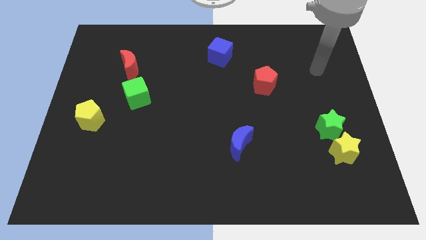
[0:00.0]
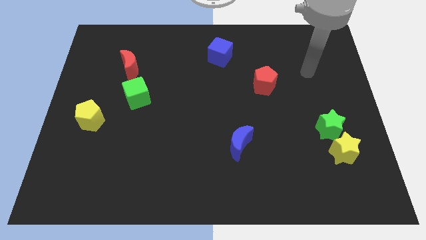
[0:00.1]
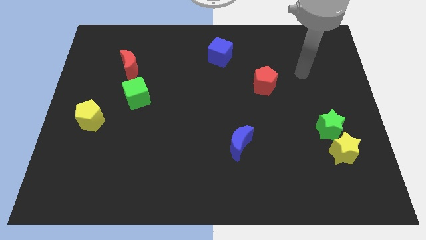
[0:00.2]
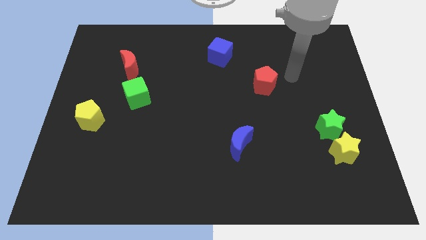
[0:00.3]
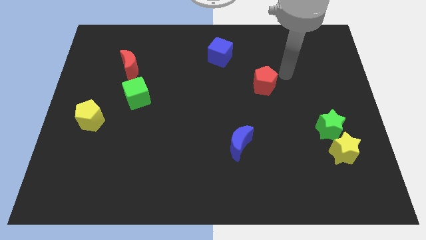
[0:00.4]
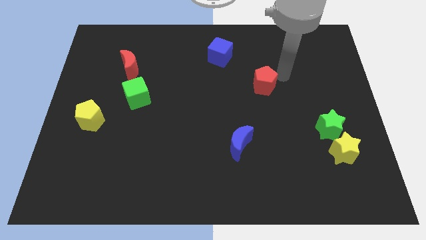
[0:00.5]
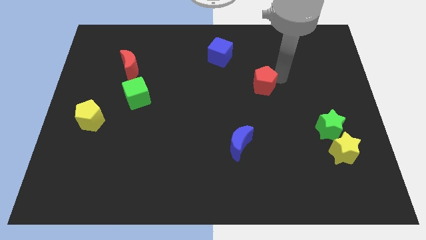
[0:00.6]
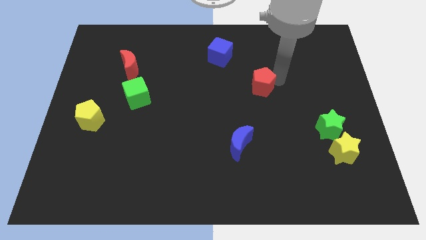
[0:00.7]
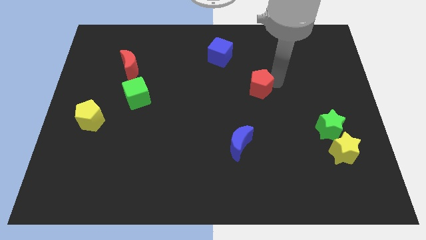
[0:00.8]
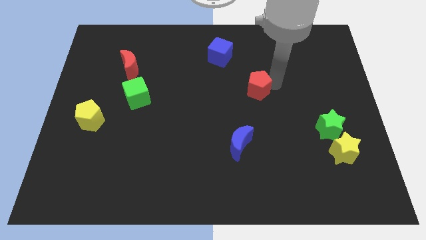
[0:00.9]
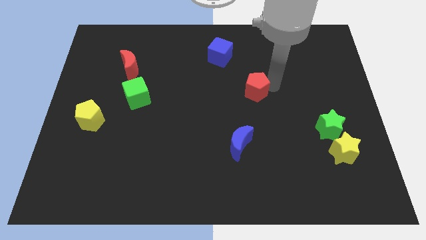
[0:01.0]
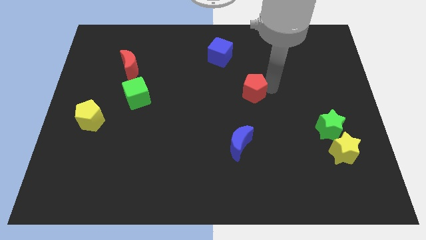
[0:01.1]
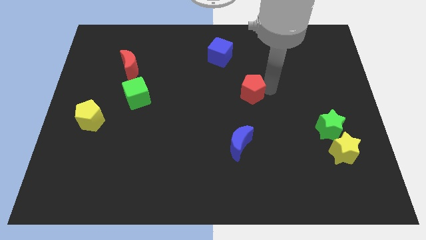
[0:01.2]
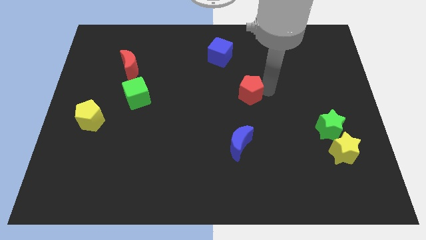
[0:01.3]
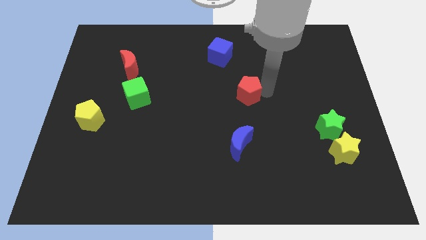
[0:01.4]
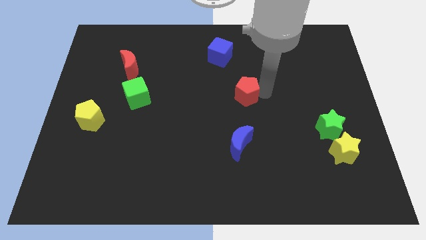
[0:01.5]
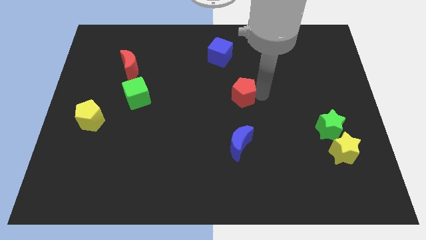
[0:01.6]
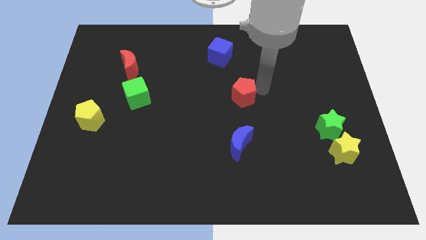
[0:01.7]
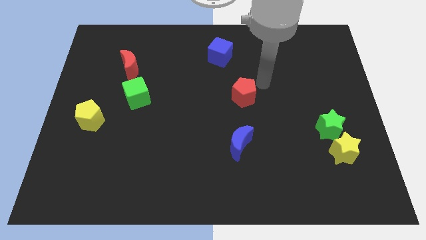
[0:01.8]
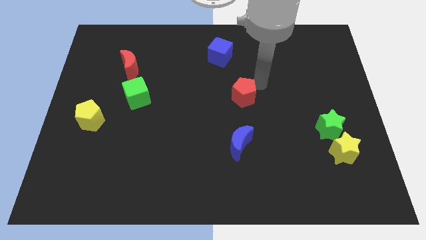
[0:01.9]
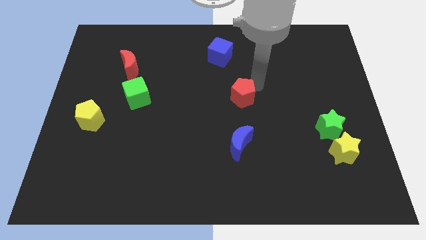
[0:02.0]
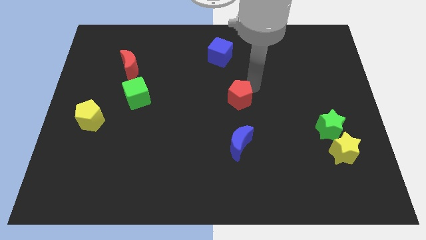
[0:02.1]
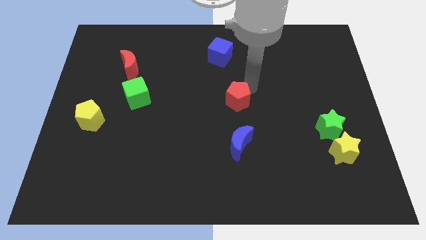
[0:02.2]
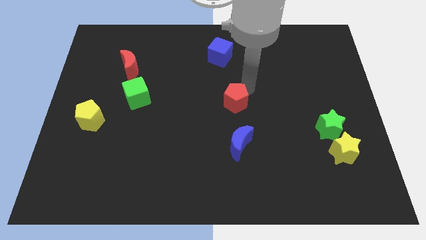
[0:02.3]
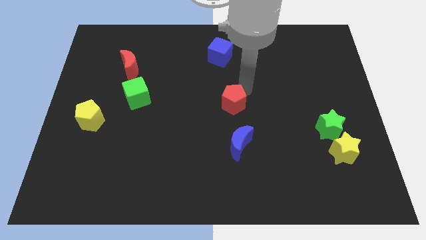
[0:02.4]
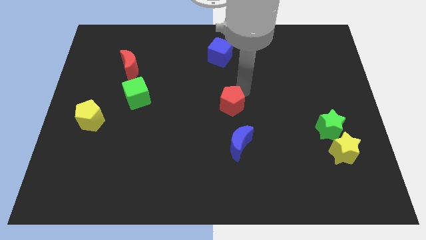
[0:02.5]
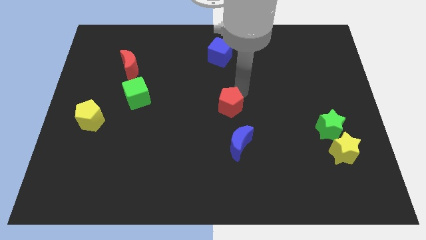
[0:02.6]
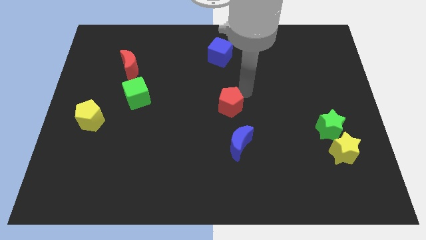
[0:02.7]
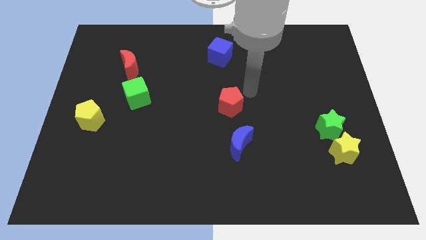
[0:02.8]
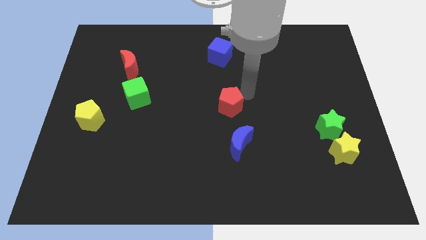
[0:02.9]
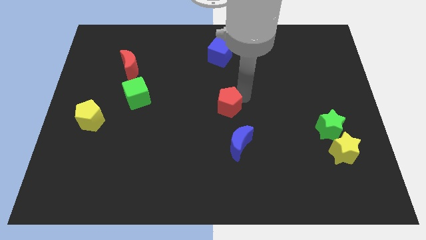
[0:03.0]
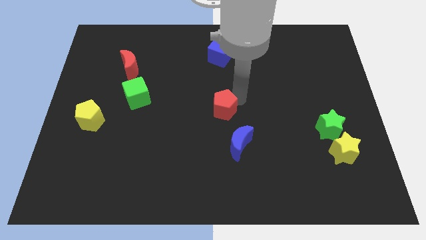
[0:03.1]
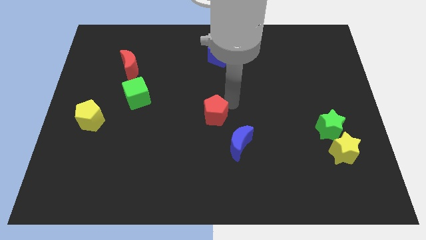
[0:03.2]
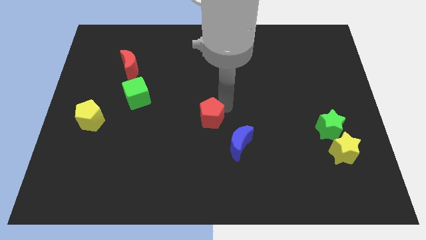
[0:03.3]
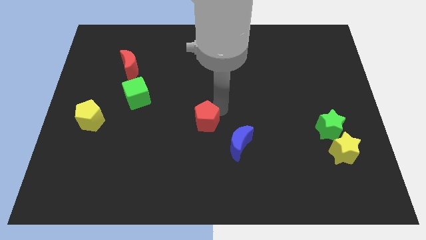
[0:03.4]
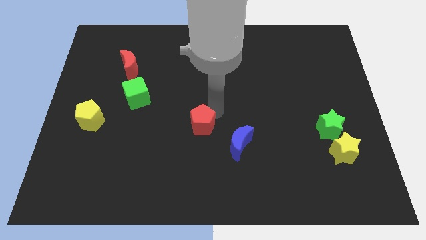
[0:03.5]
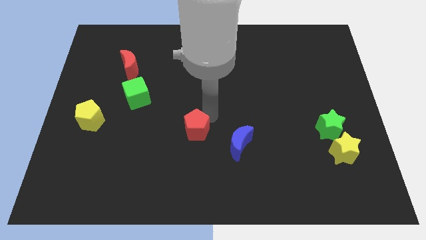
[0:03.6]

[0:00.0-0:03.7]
slide the red pentagon diagonally down and to the left

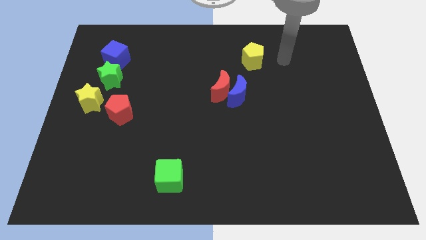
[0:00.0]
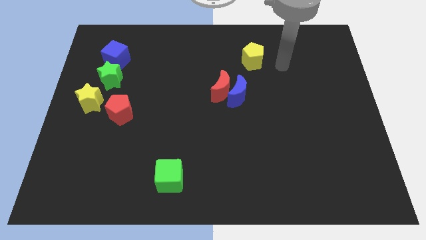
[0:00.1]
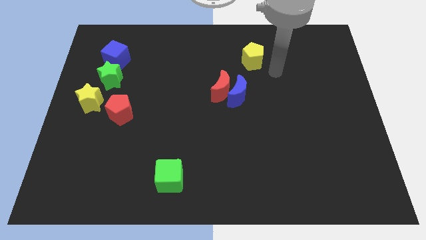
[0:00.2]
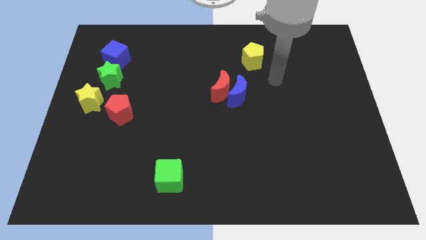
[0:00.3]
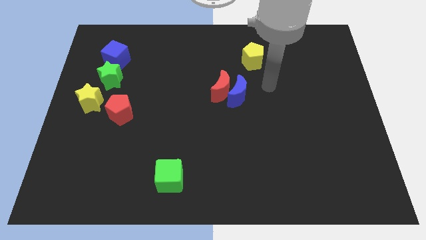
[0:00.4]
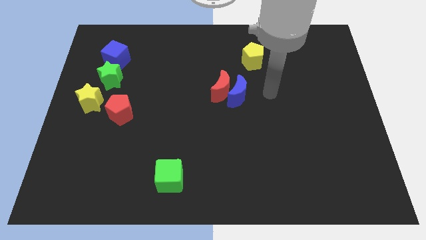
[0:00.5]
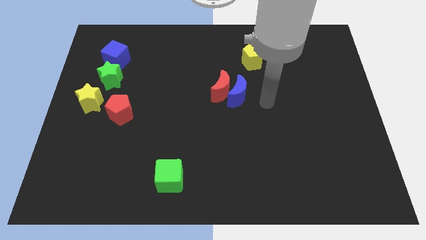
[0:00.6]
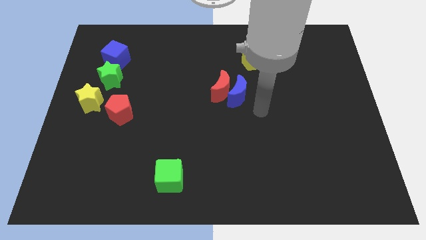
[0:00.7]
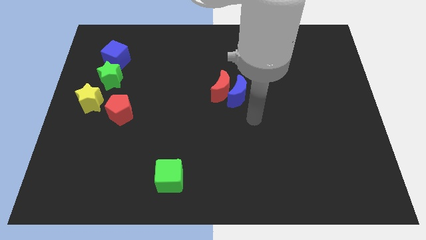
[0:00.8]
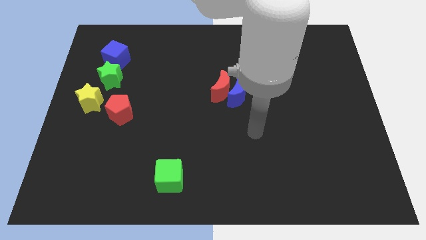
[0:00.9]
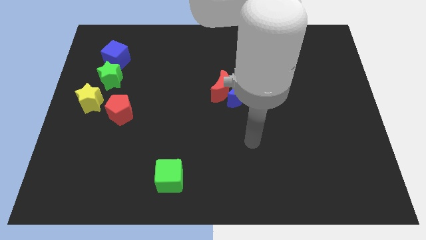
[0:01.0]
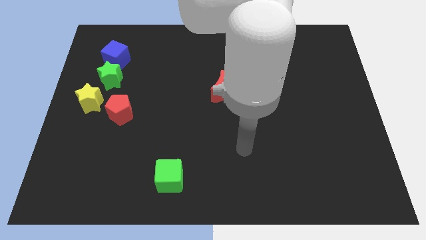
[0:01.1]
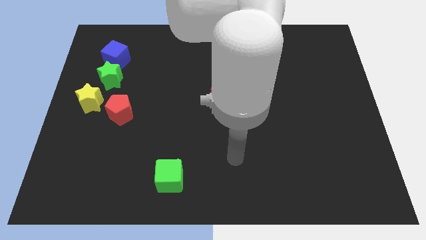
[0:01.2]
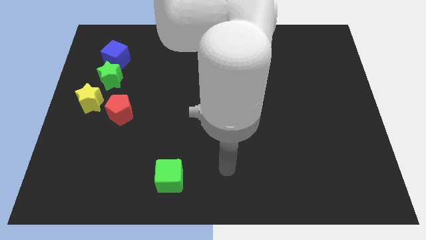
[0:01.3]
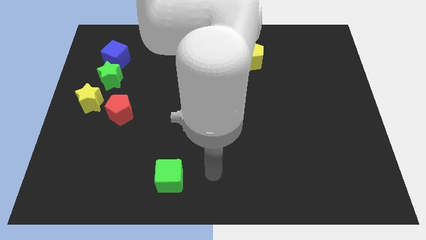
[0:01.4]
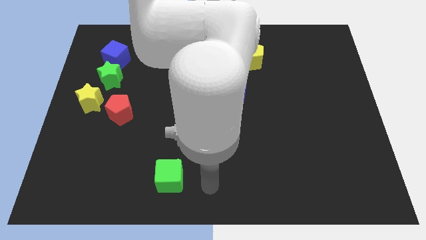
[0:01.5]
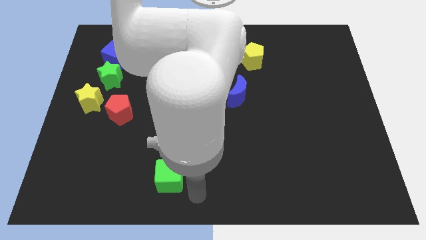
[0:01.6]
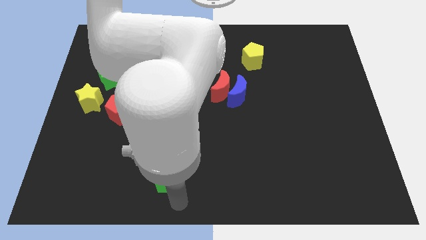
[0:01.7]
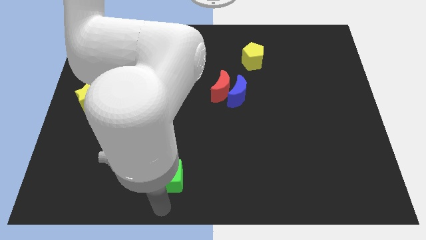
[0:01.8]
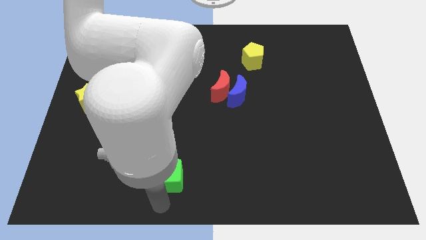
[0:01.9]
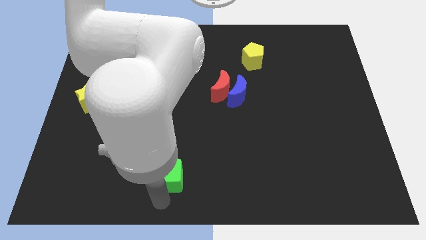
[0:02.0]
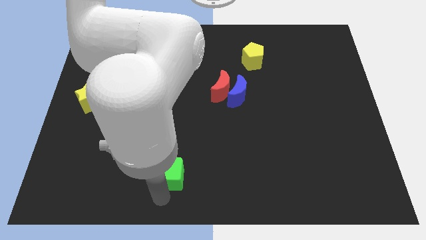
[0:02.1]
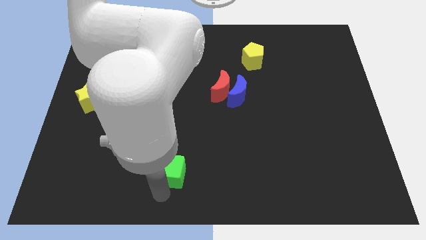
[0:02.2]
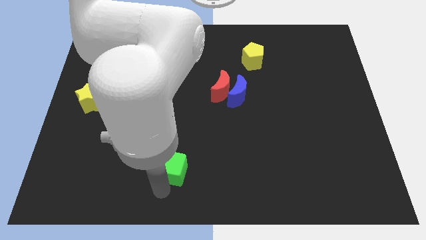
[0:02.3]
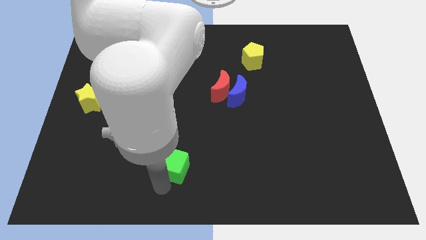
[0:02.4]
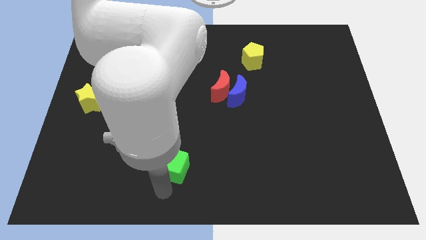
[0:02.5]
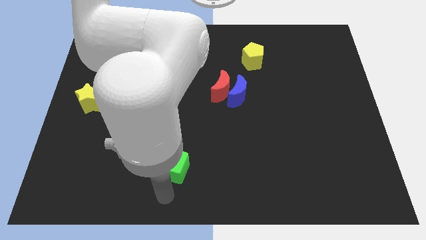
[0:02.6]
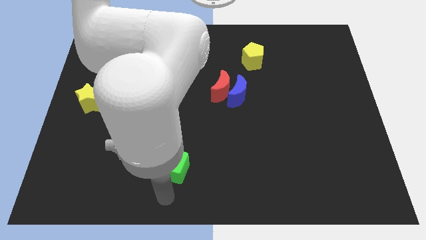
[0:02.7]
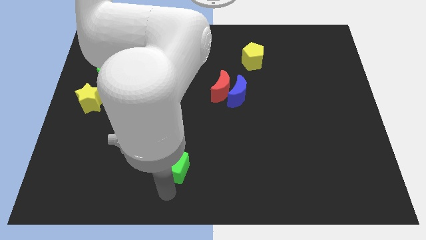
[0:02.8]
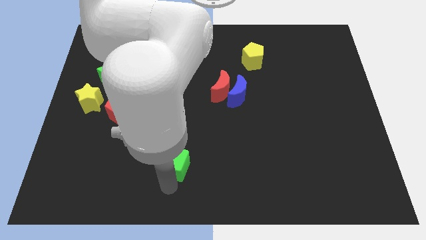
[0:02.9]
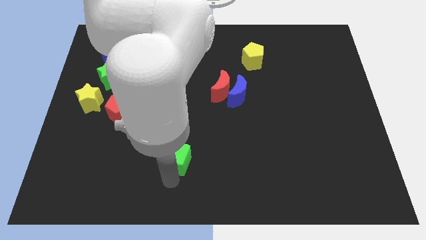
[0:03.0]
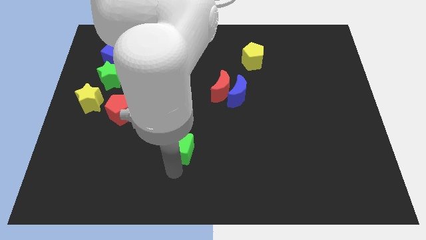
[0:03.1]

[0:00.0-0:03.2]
move the green cube a little bit up

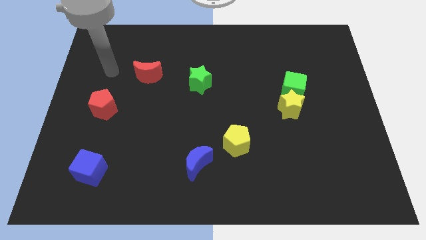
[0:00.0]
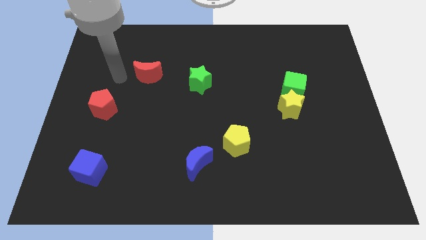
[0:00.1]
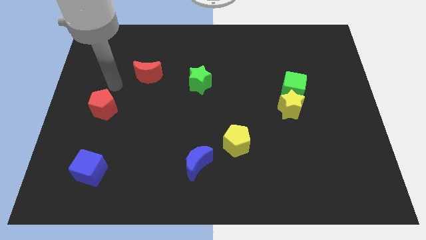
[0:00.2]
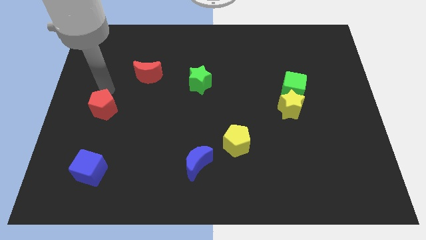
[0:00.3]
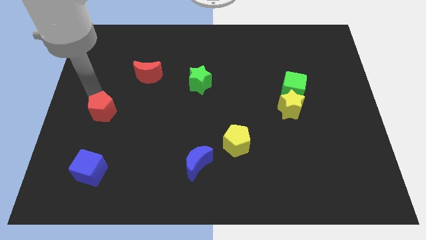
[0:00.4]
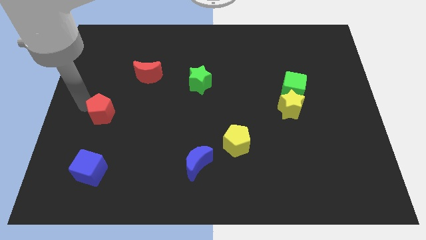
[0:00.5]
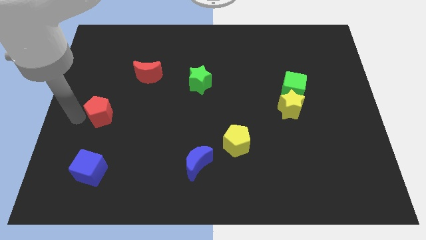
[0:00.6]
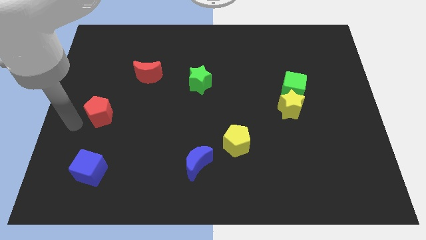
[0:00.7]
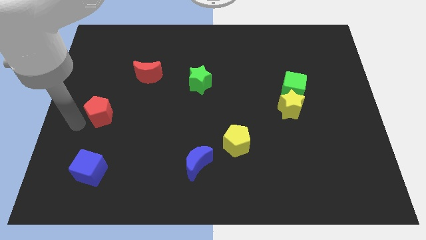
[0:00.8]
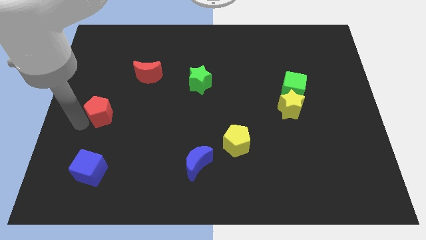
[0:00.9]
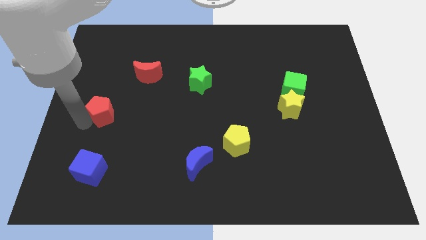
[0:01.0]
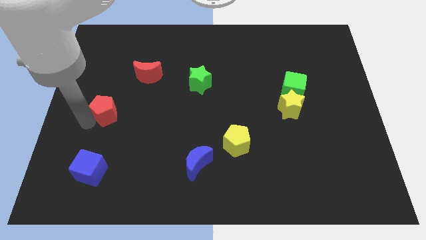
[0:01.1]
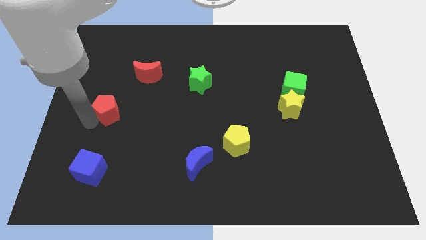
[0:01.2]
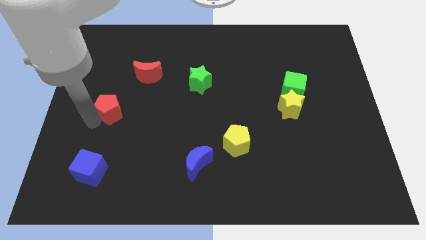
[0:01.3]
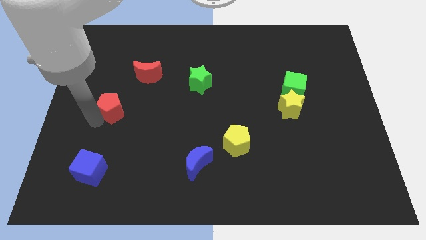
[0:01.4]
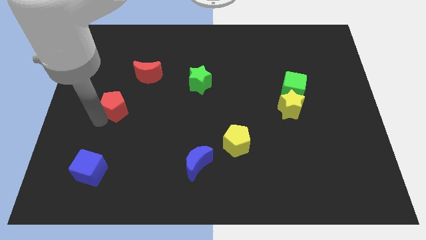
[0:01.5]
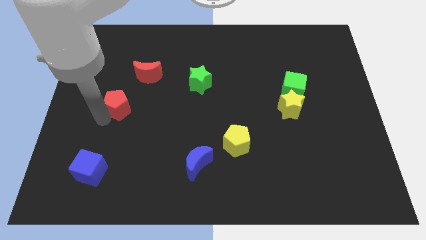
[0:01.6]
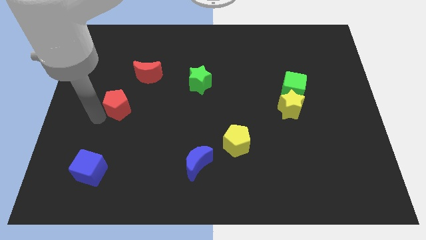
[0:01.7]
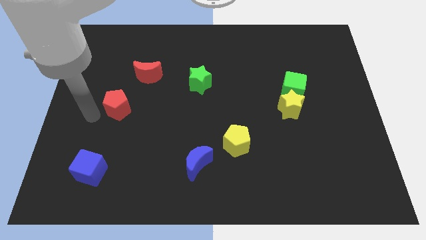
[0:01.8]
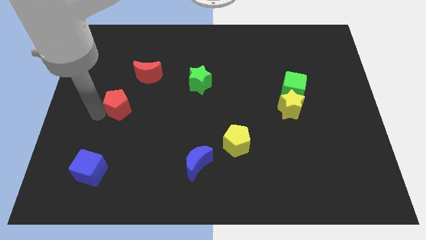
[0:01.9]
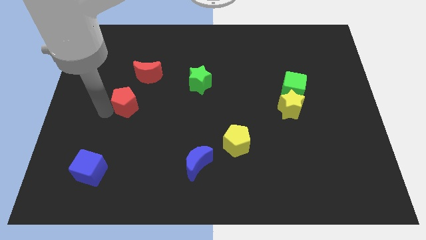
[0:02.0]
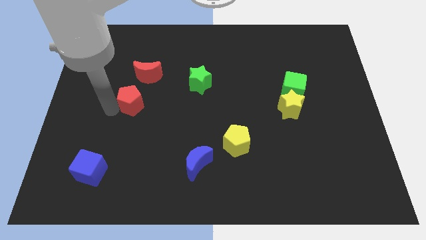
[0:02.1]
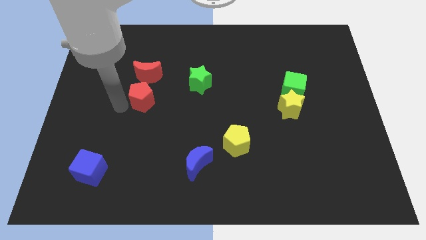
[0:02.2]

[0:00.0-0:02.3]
slide the red pentagon diagonally up and to the right a little
